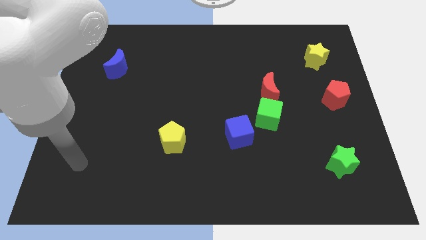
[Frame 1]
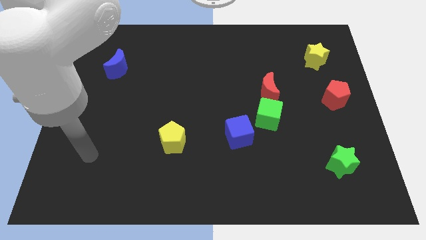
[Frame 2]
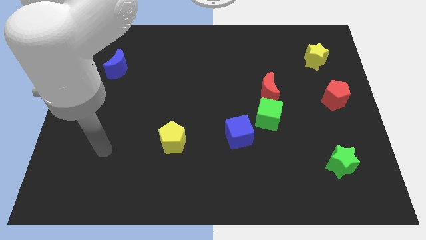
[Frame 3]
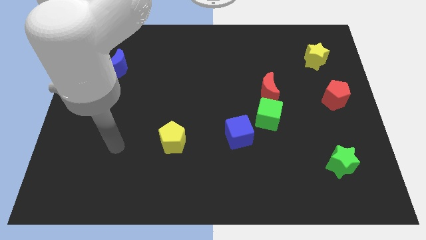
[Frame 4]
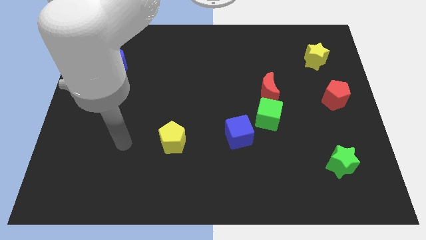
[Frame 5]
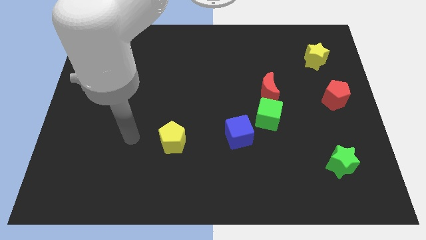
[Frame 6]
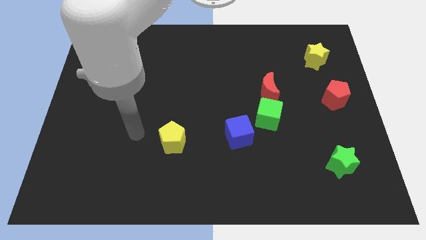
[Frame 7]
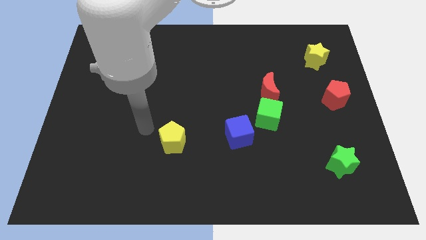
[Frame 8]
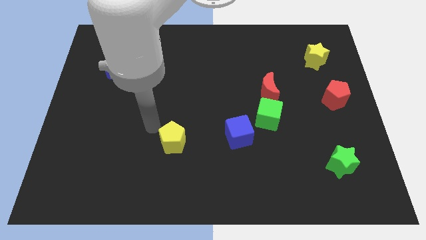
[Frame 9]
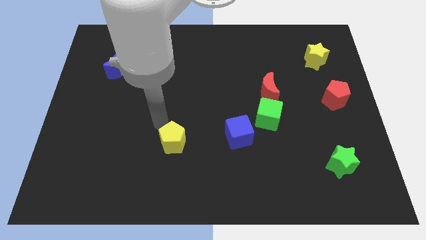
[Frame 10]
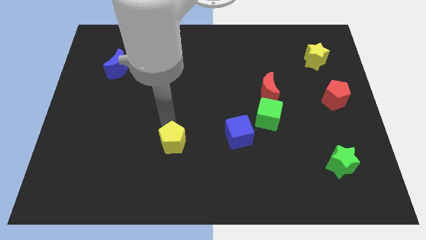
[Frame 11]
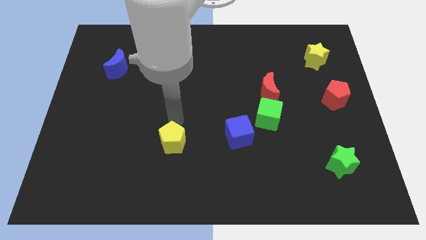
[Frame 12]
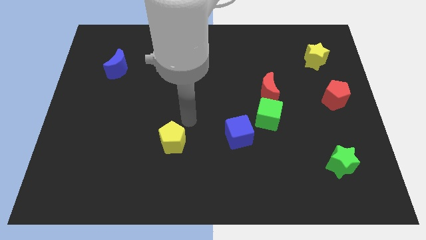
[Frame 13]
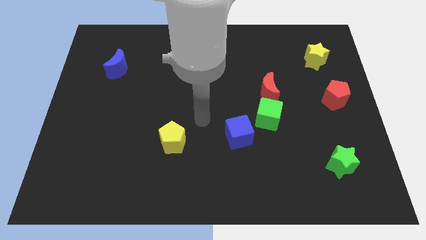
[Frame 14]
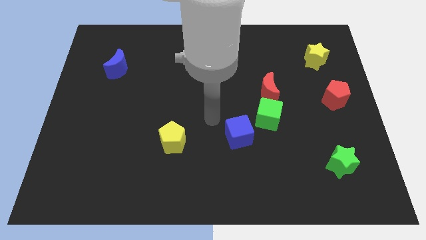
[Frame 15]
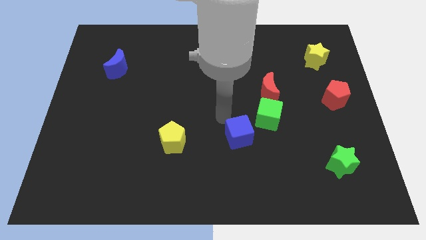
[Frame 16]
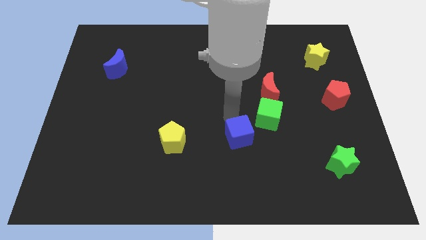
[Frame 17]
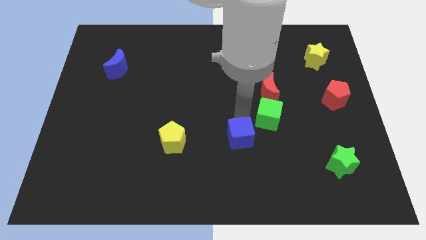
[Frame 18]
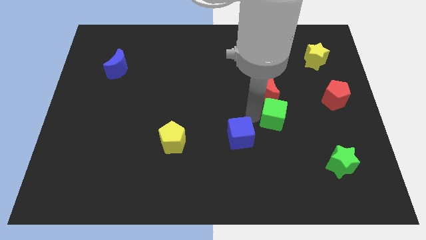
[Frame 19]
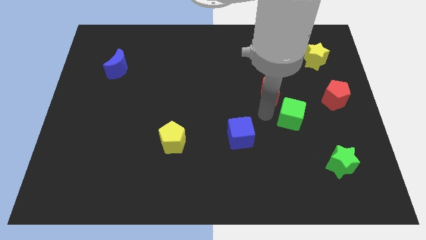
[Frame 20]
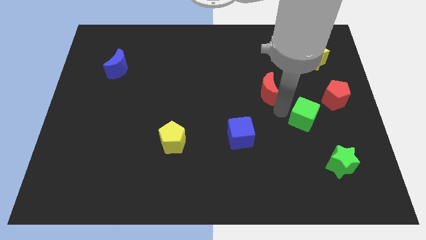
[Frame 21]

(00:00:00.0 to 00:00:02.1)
pull the red moon apart from the green cube

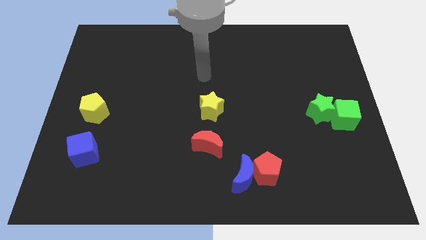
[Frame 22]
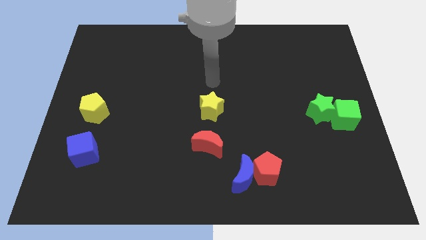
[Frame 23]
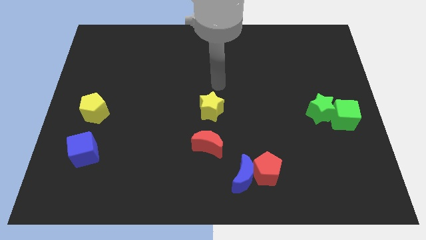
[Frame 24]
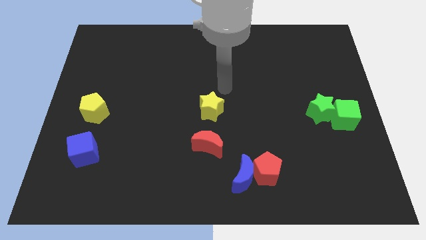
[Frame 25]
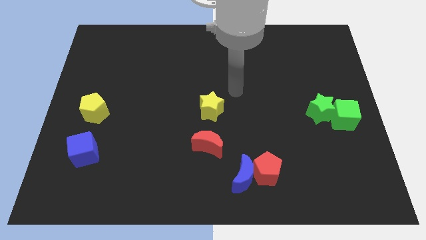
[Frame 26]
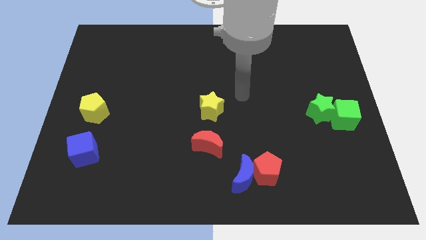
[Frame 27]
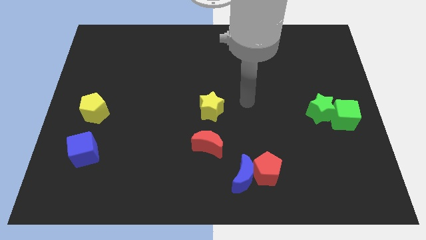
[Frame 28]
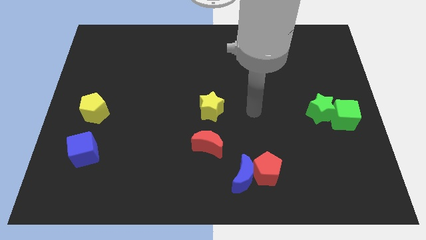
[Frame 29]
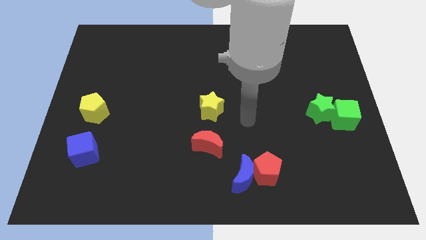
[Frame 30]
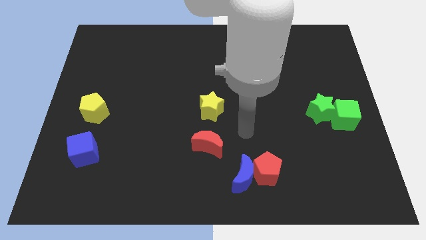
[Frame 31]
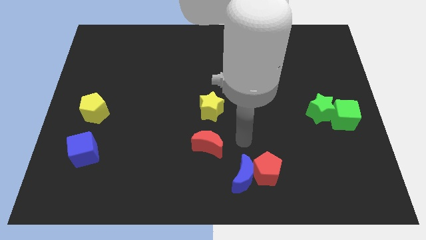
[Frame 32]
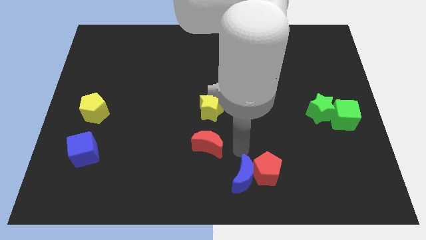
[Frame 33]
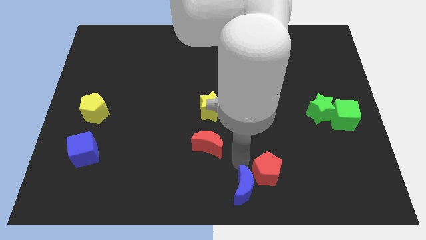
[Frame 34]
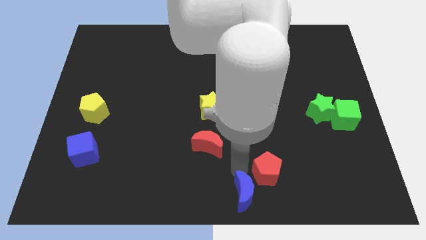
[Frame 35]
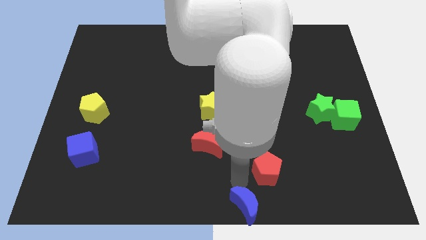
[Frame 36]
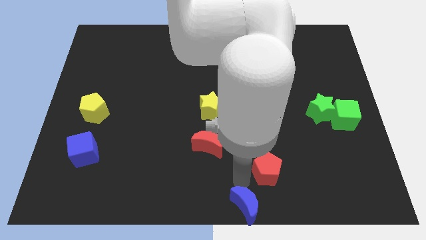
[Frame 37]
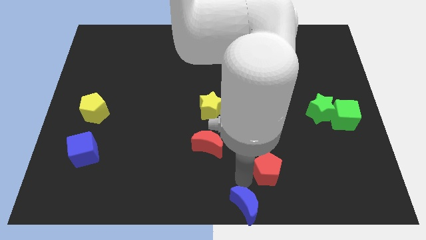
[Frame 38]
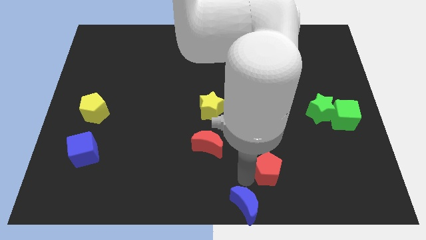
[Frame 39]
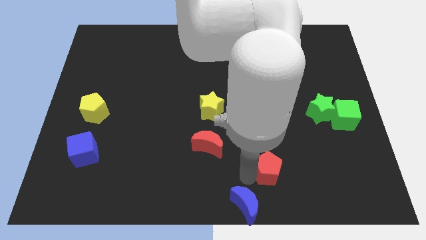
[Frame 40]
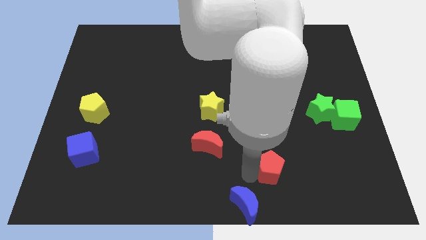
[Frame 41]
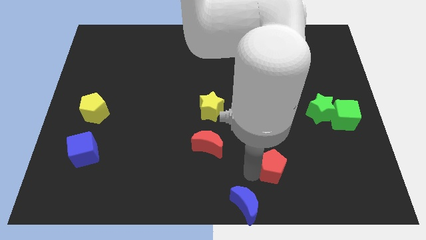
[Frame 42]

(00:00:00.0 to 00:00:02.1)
move the red pentagon away from the blue moon

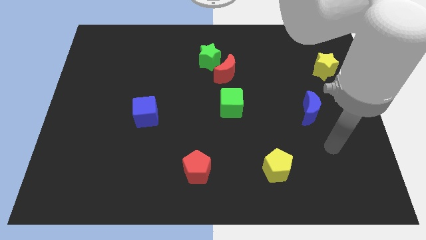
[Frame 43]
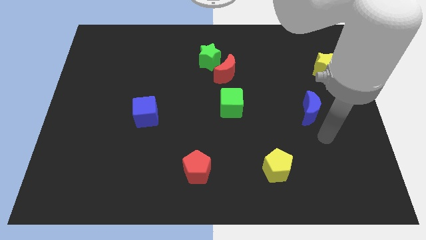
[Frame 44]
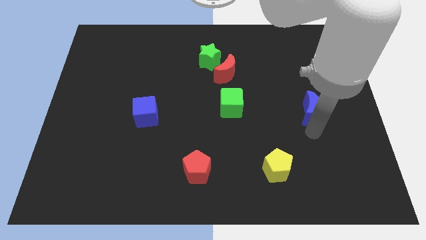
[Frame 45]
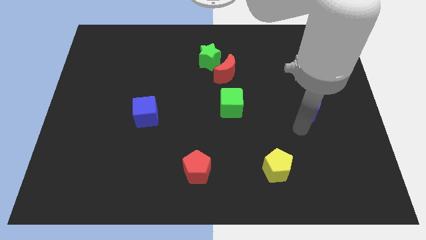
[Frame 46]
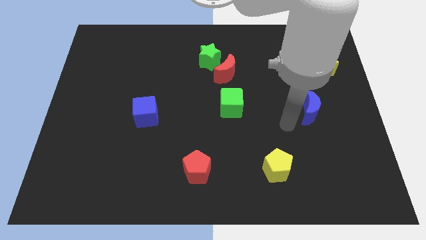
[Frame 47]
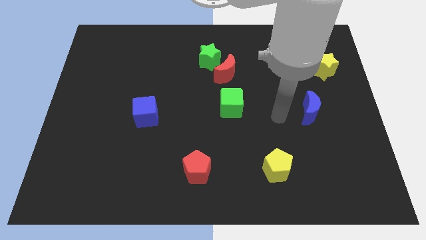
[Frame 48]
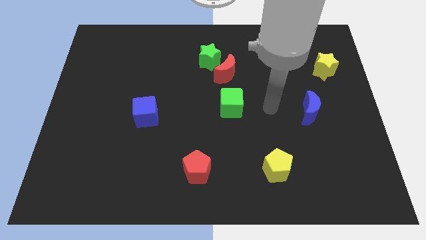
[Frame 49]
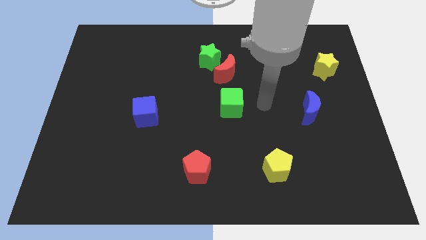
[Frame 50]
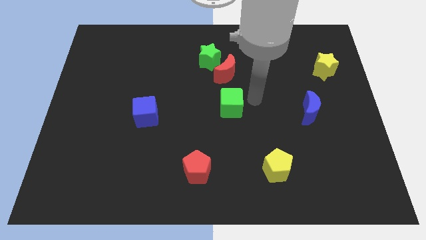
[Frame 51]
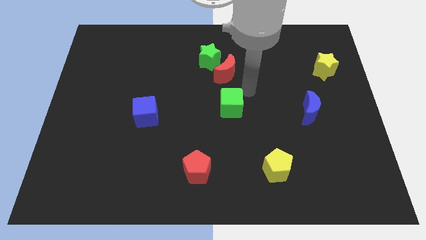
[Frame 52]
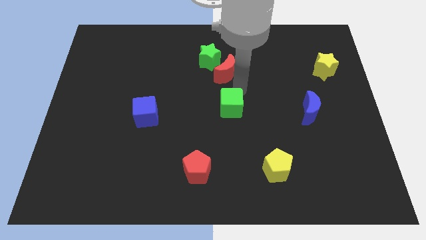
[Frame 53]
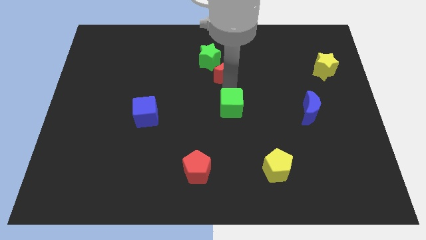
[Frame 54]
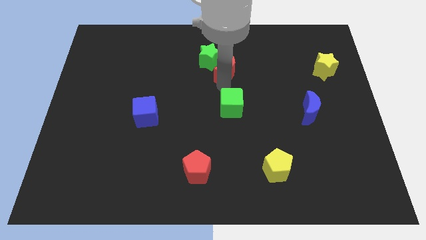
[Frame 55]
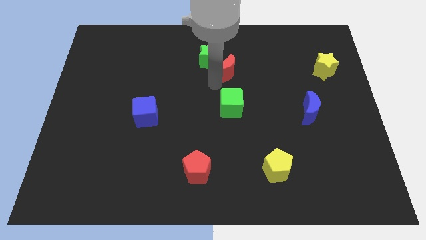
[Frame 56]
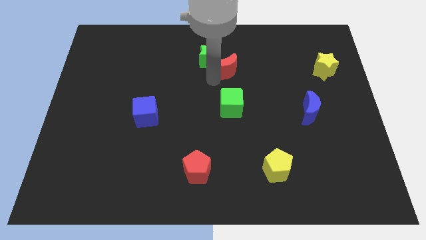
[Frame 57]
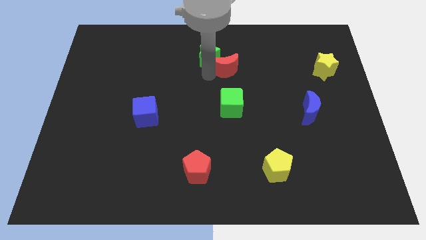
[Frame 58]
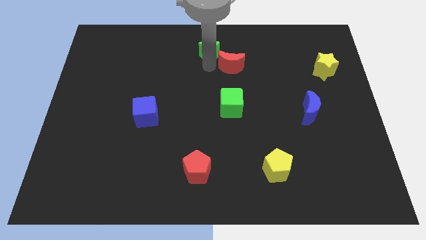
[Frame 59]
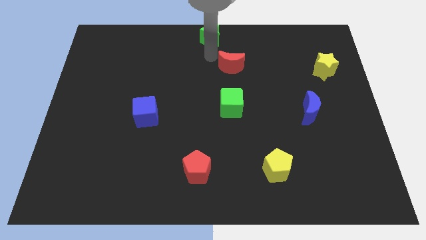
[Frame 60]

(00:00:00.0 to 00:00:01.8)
move the red moon away from the green star

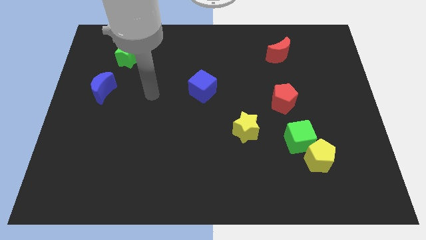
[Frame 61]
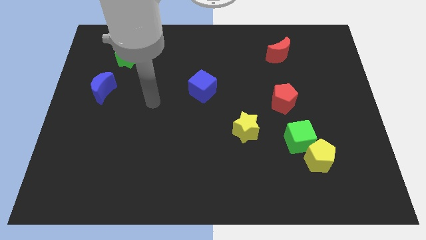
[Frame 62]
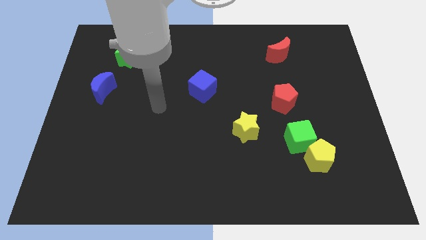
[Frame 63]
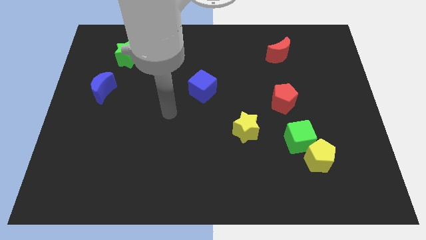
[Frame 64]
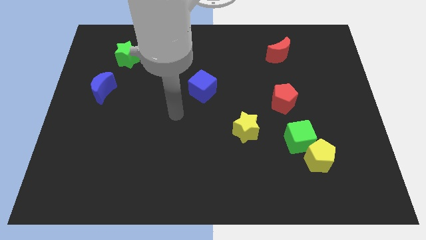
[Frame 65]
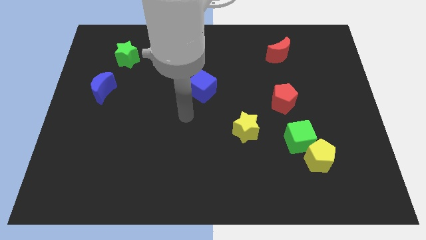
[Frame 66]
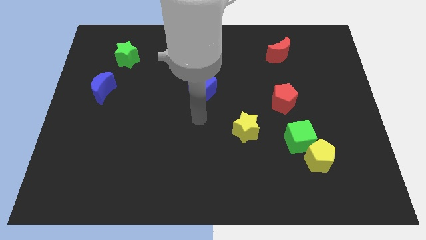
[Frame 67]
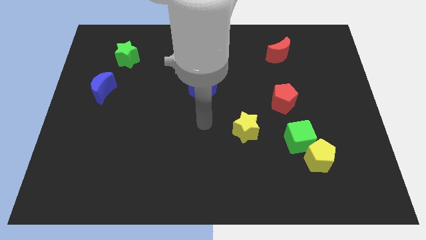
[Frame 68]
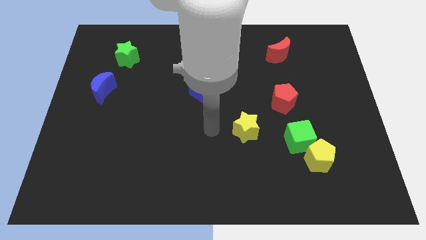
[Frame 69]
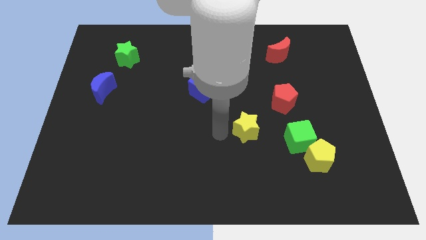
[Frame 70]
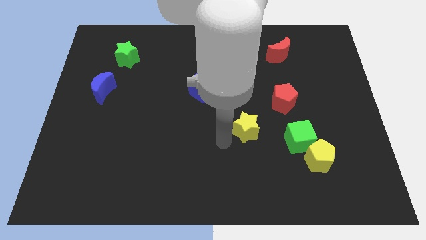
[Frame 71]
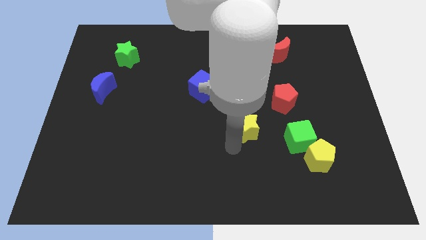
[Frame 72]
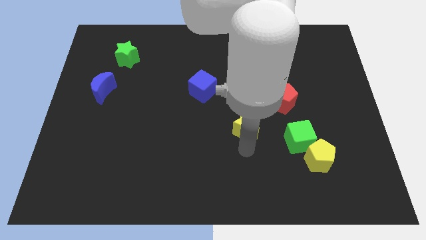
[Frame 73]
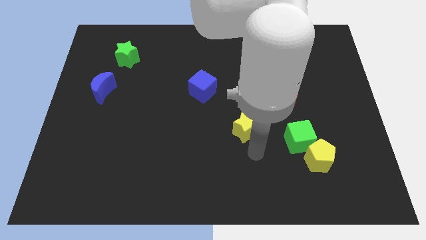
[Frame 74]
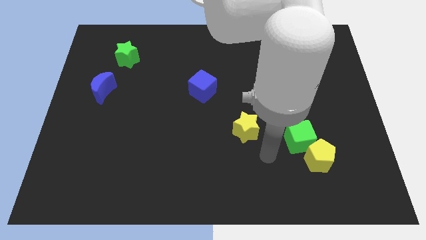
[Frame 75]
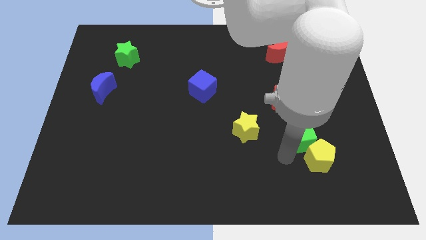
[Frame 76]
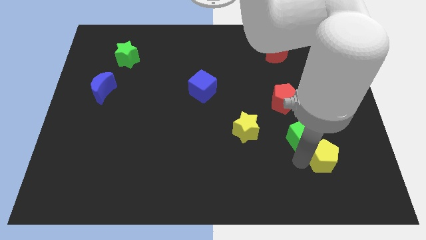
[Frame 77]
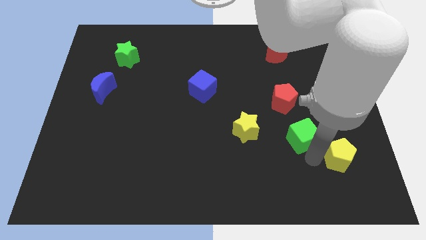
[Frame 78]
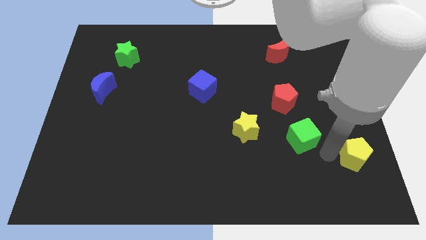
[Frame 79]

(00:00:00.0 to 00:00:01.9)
separate the green cube from the yellow pentagon

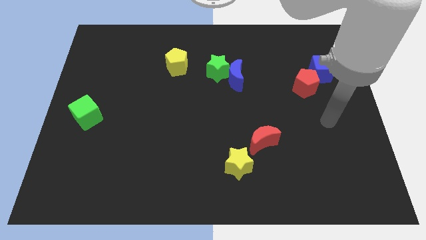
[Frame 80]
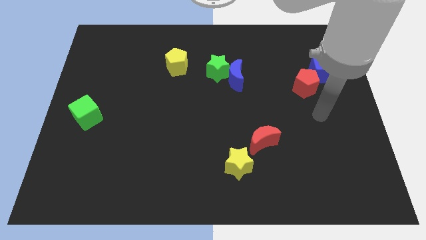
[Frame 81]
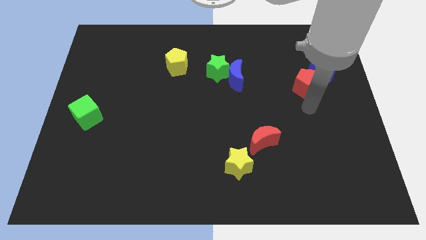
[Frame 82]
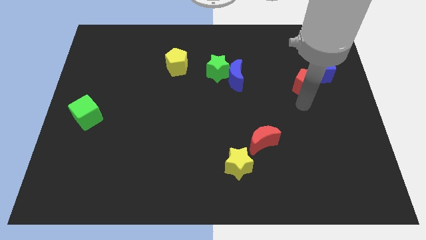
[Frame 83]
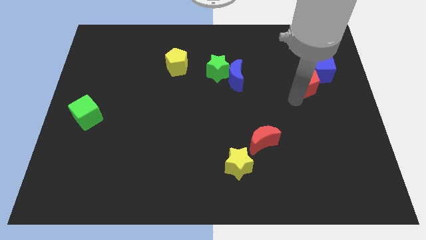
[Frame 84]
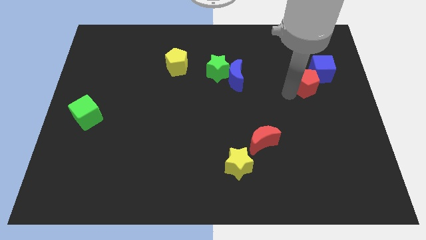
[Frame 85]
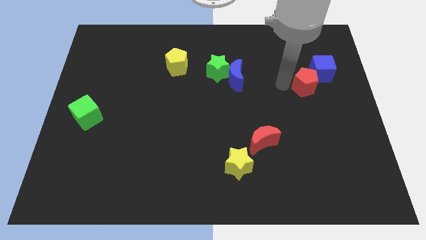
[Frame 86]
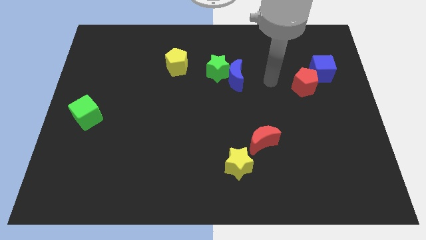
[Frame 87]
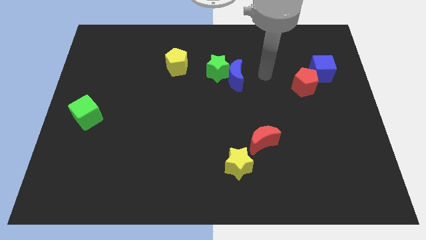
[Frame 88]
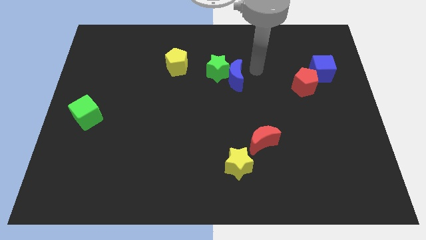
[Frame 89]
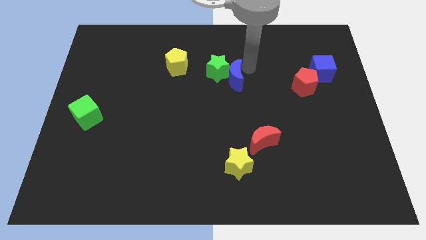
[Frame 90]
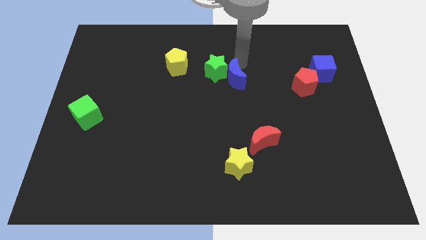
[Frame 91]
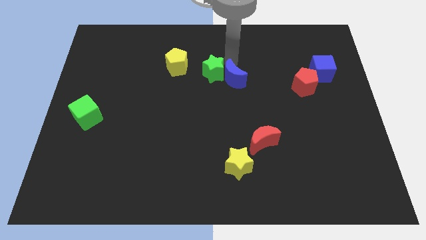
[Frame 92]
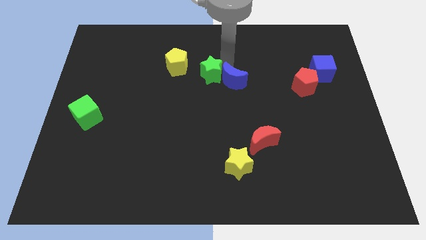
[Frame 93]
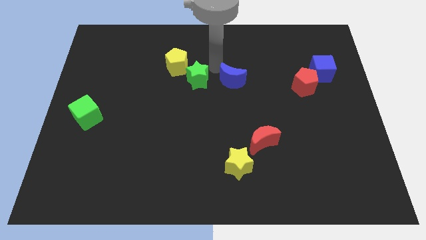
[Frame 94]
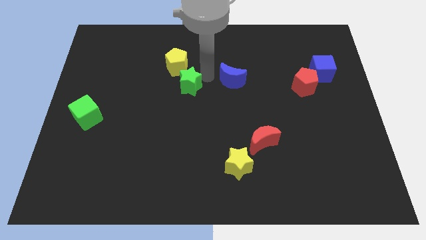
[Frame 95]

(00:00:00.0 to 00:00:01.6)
separate the blue moon from the green star
